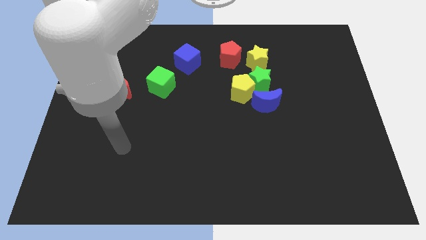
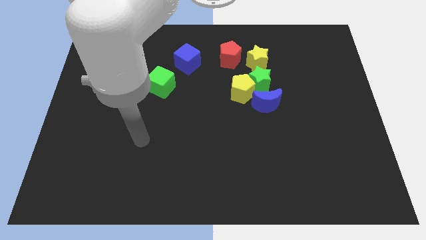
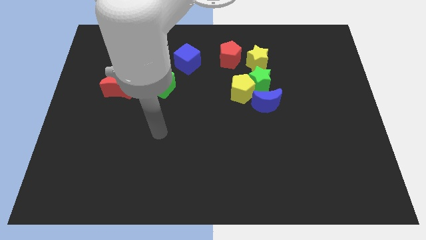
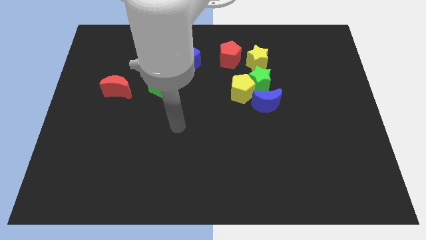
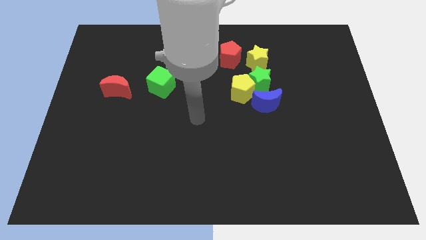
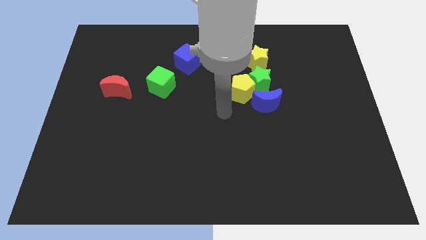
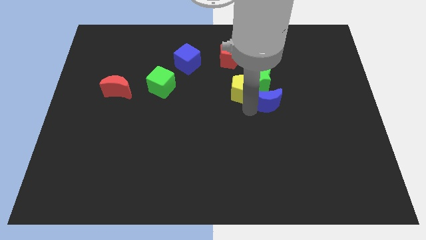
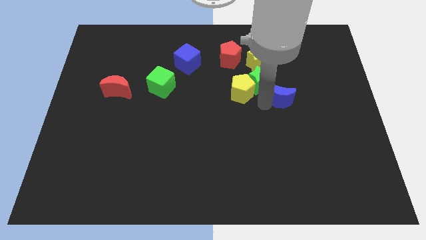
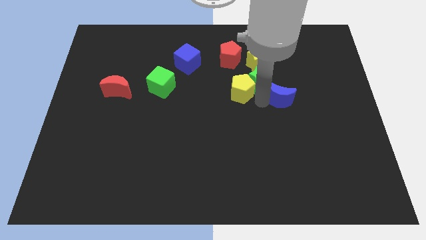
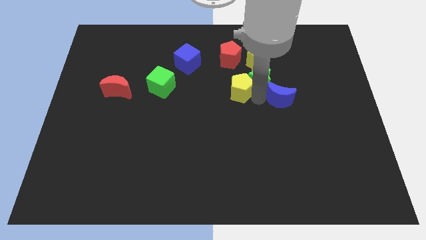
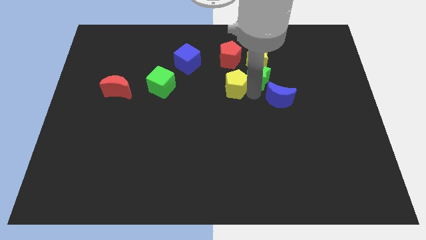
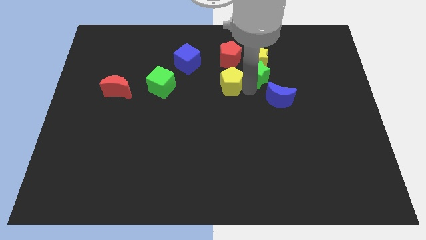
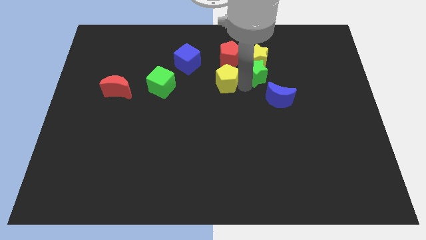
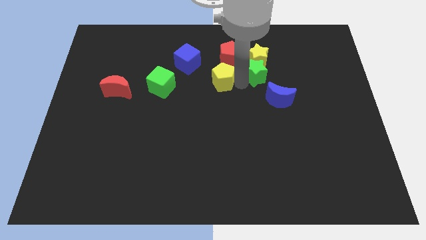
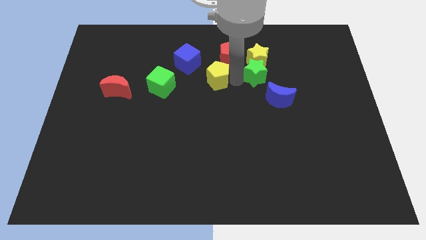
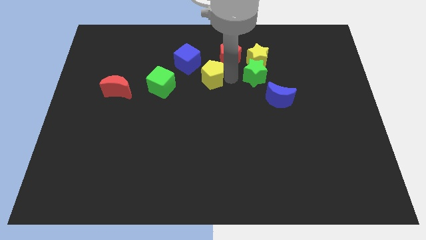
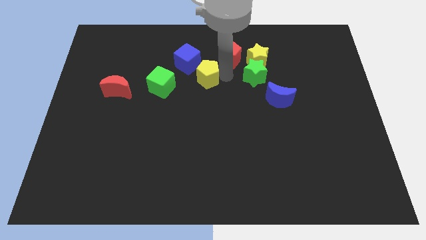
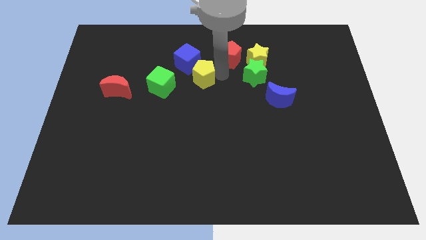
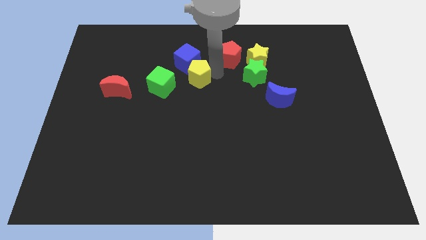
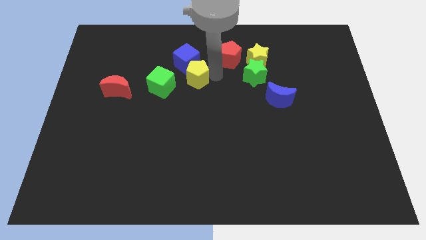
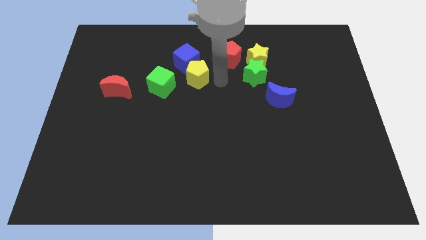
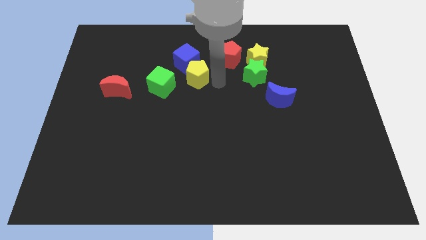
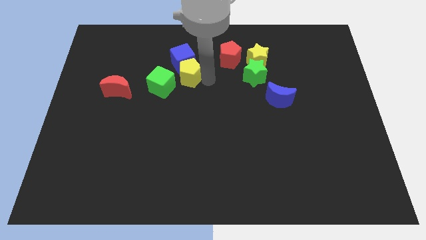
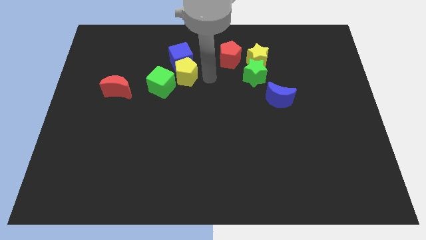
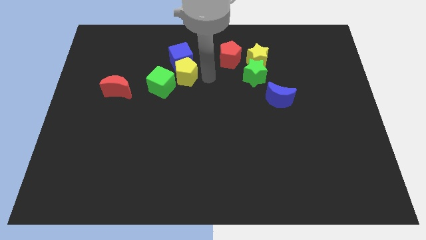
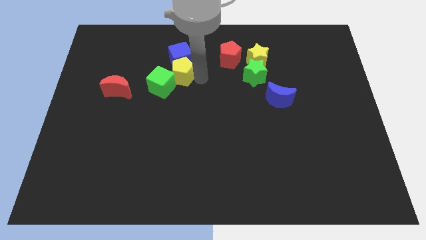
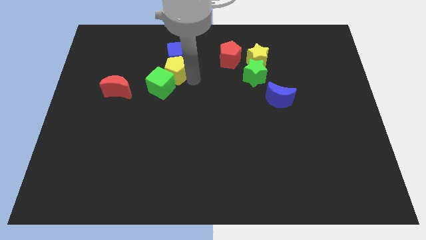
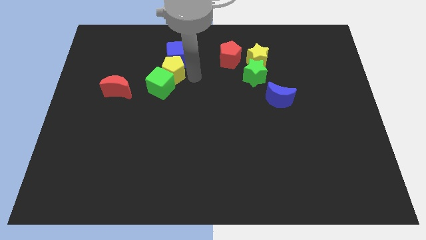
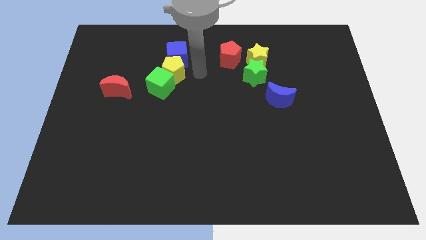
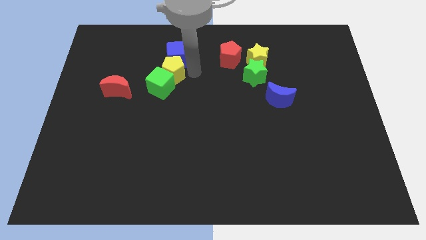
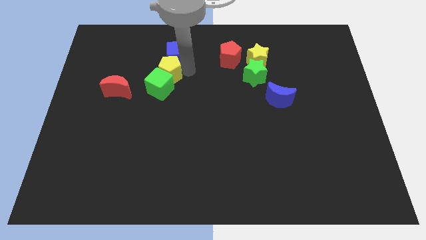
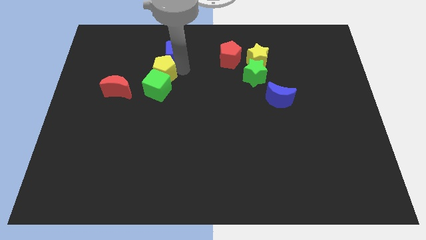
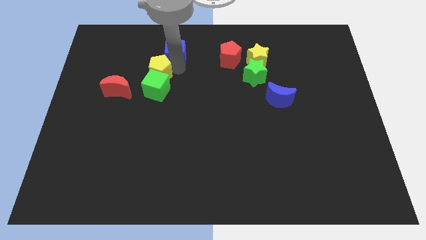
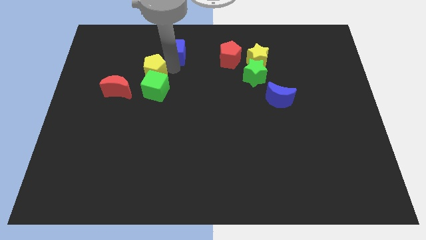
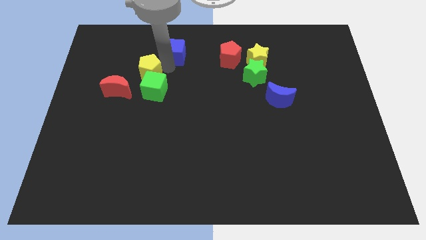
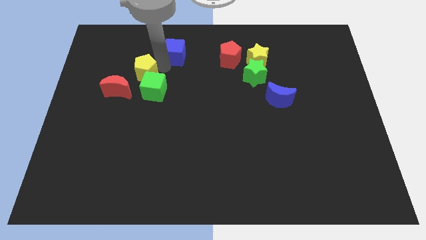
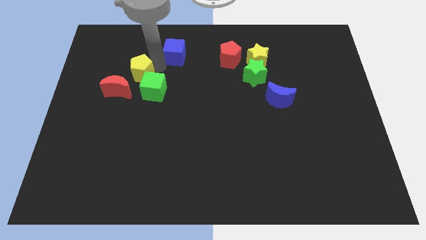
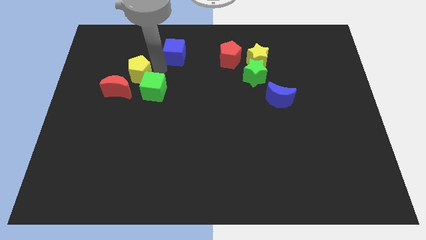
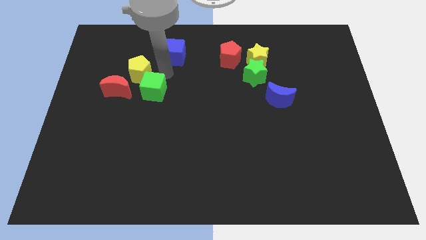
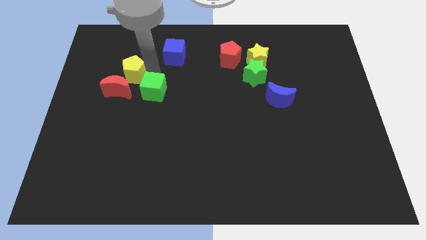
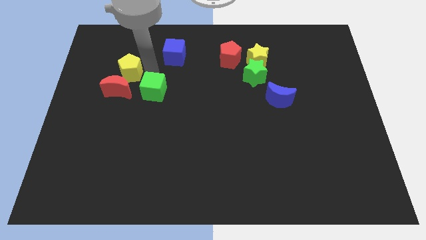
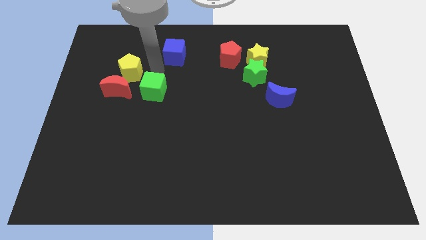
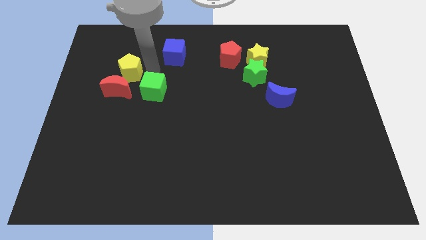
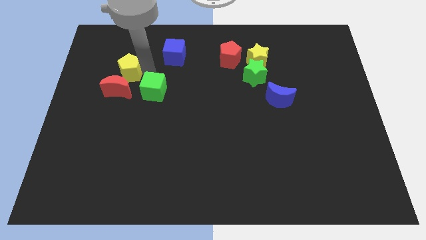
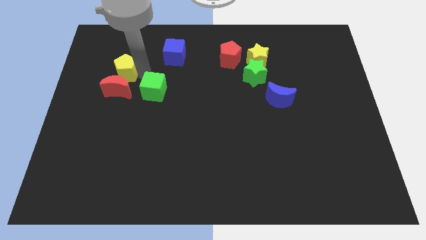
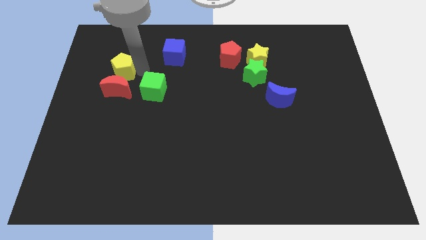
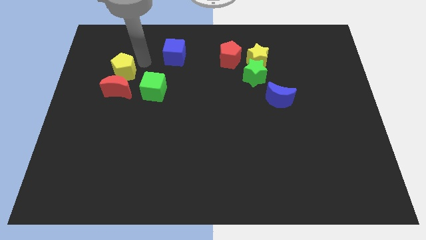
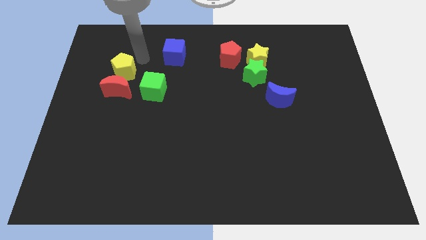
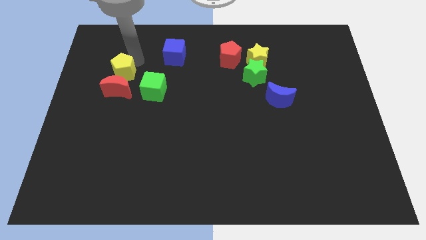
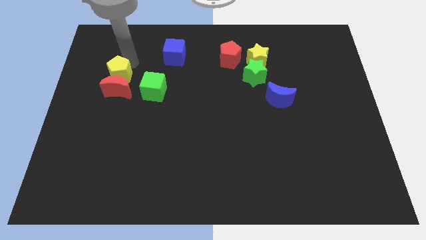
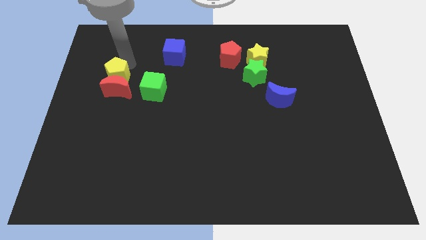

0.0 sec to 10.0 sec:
move the yellow pentagon left of the green cube

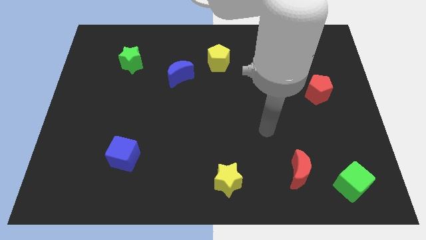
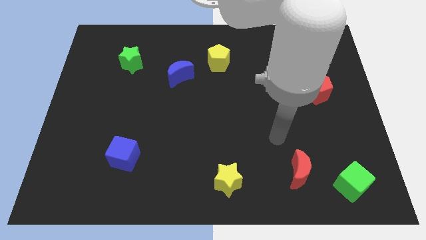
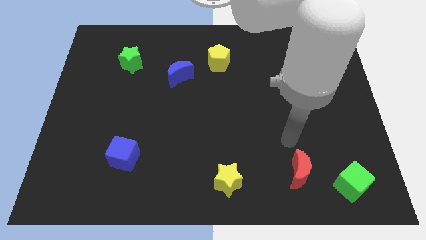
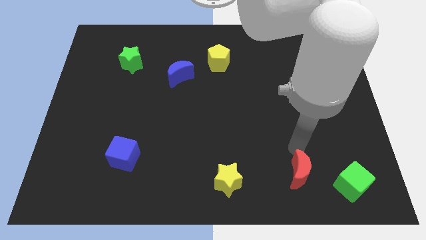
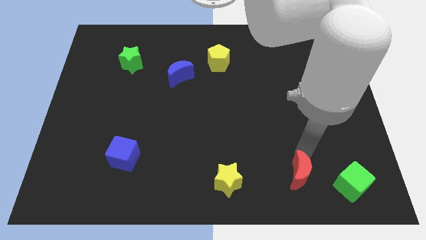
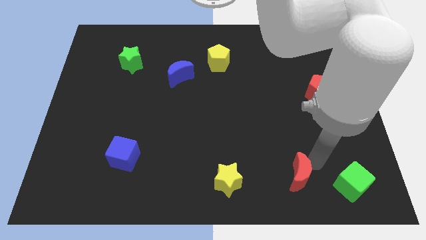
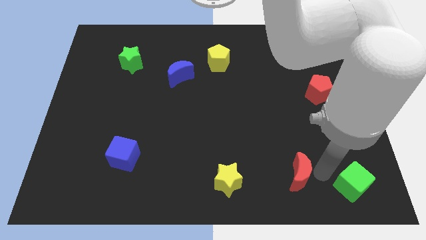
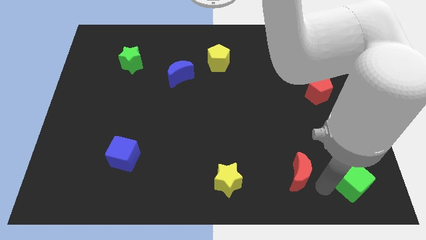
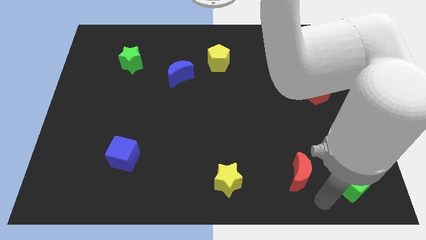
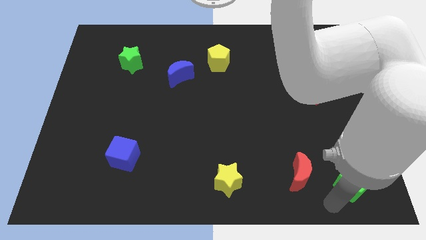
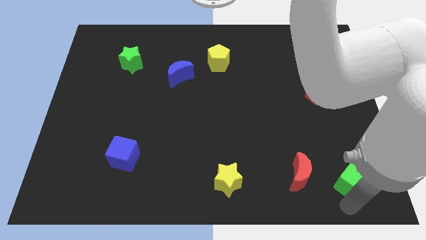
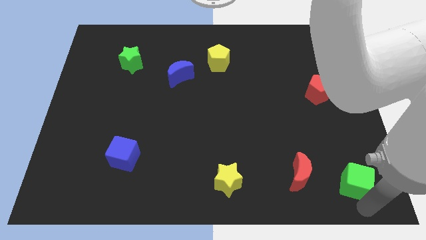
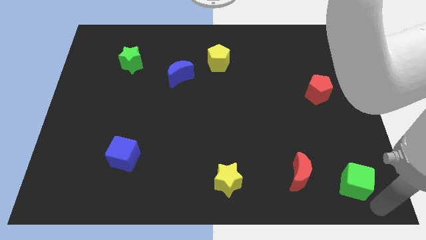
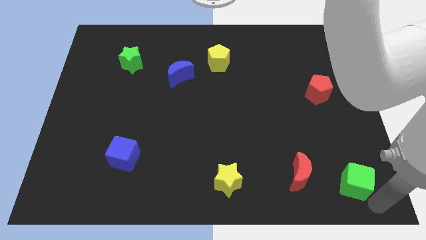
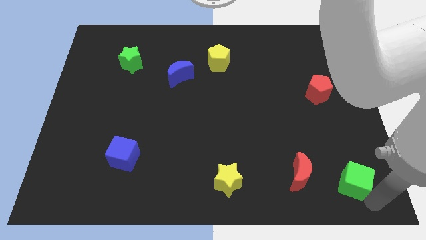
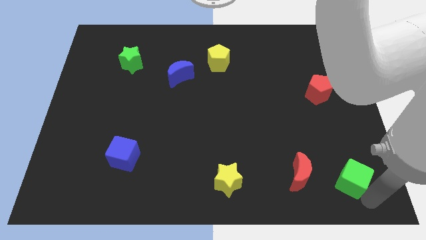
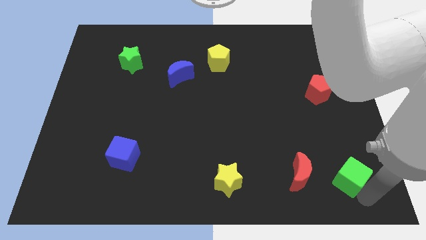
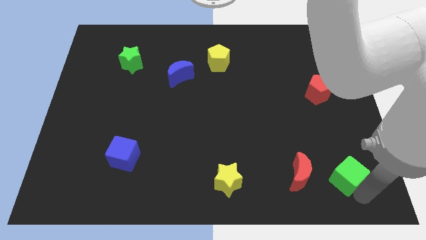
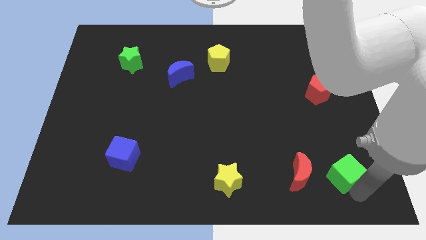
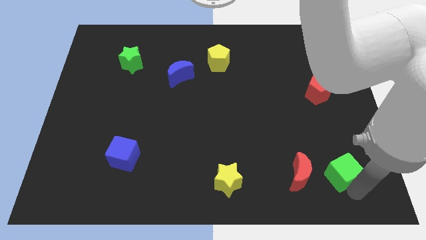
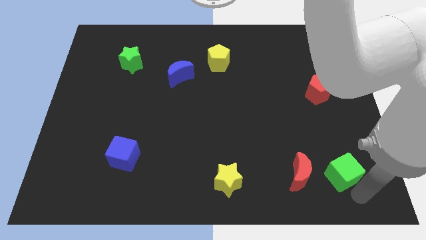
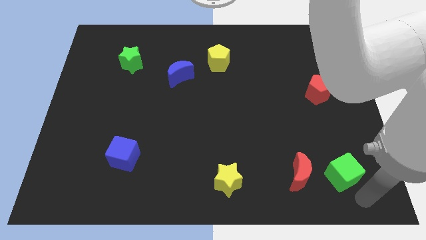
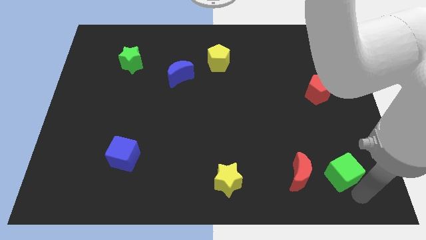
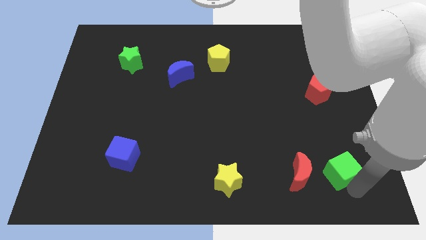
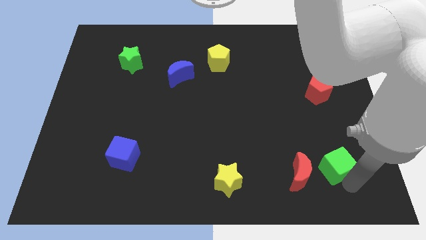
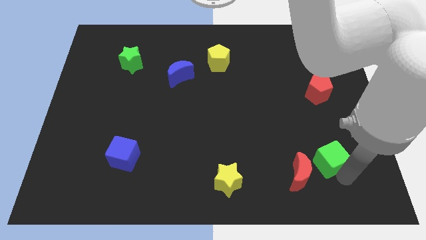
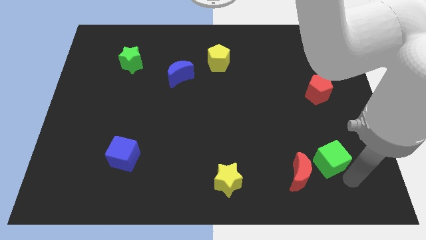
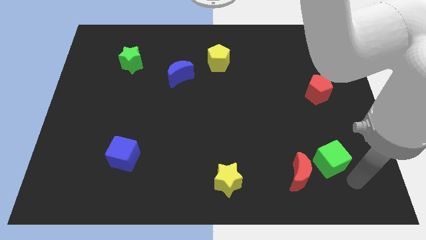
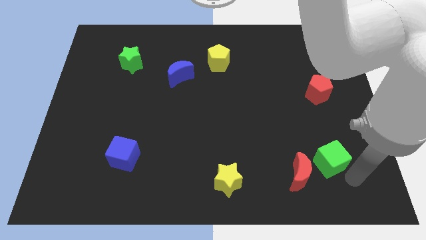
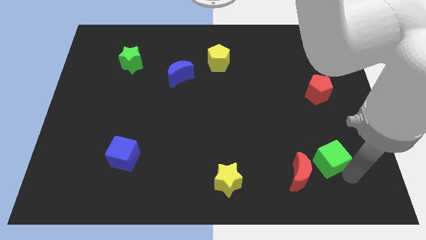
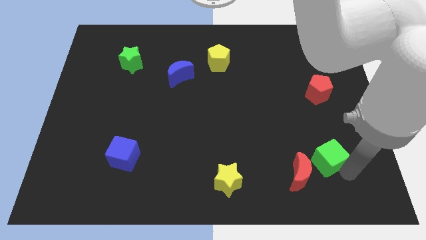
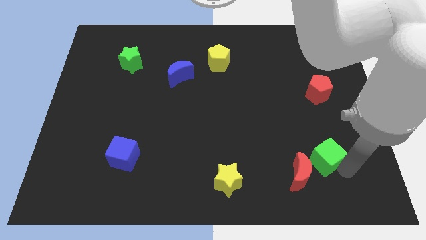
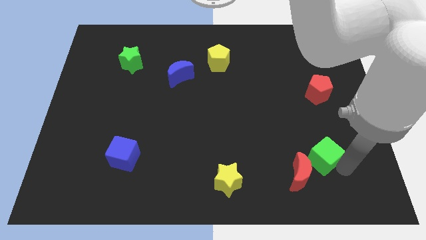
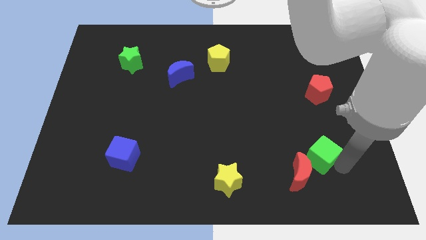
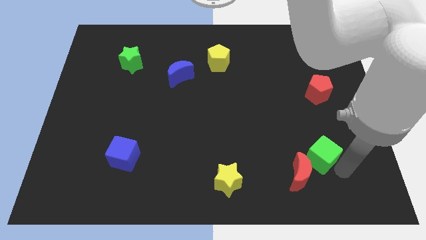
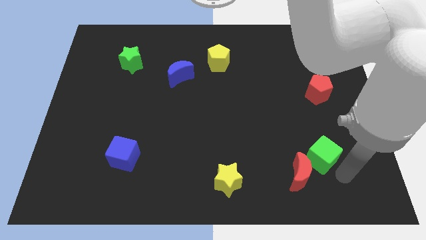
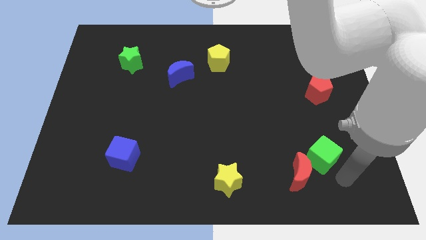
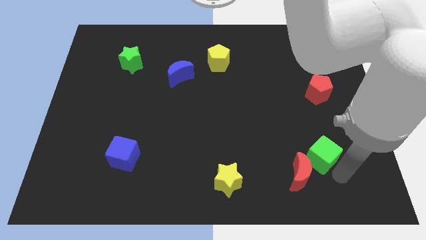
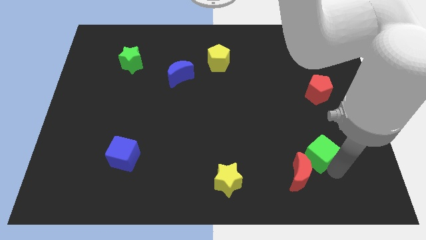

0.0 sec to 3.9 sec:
move the green cube to the top side of the red moon
